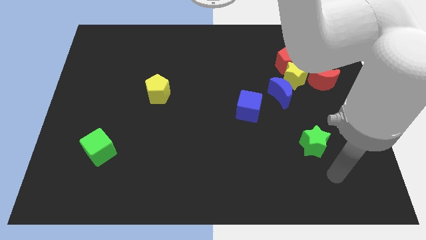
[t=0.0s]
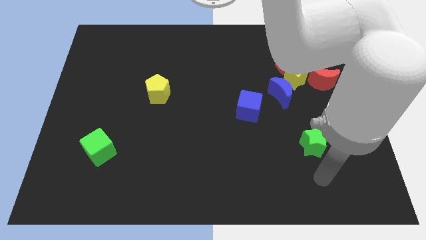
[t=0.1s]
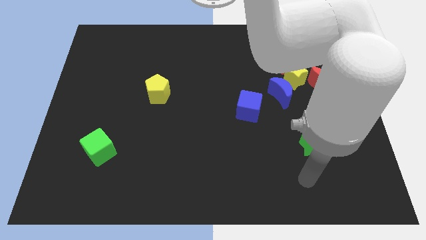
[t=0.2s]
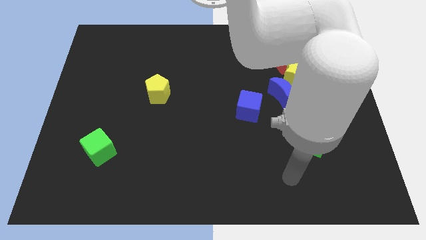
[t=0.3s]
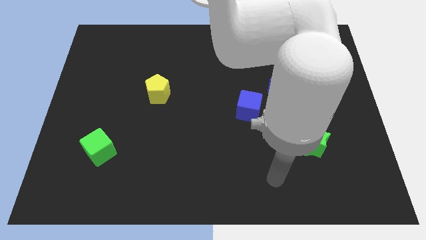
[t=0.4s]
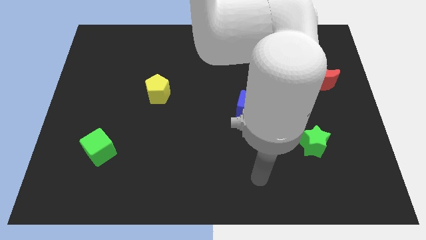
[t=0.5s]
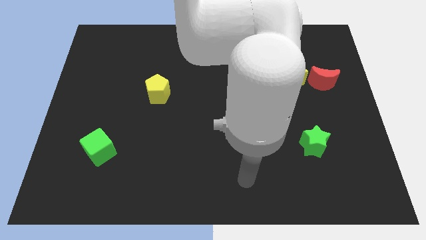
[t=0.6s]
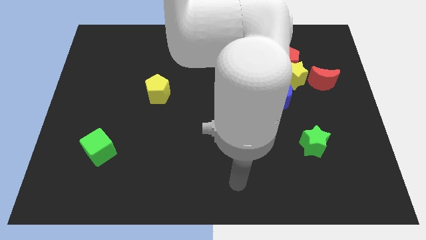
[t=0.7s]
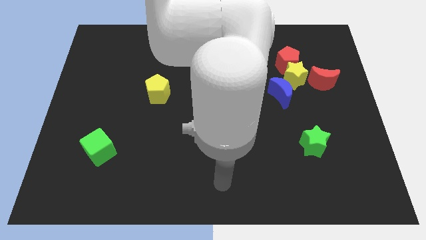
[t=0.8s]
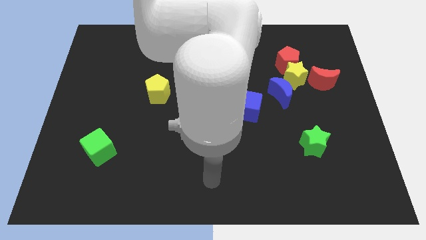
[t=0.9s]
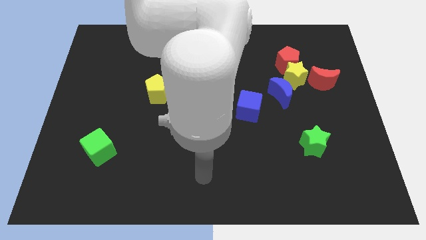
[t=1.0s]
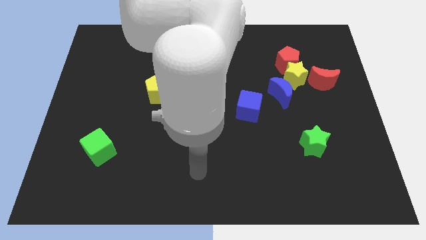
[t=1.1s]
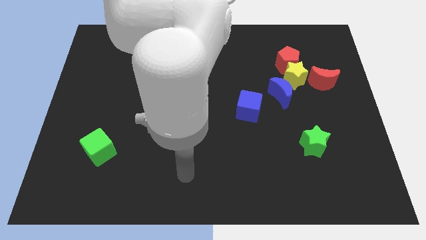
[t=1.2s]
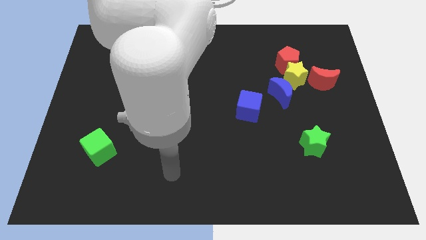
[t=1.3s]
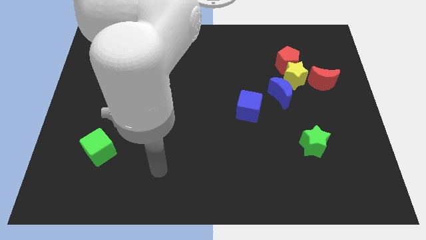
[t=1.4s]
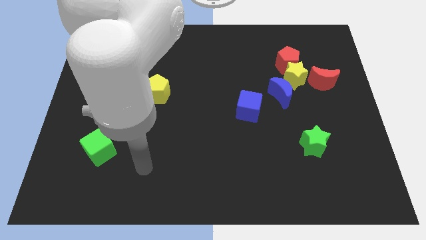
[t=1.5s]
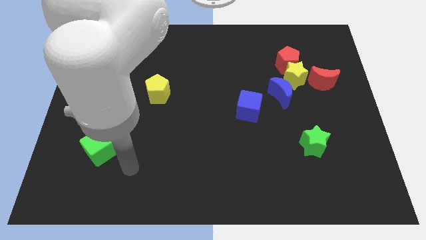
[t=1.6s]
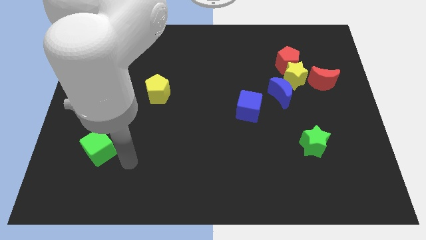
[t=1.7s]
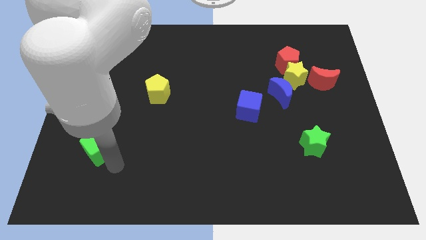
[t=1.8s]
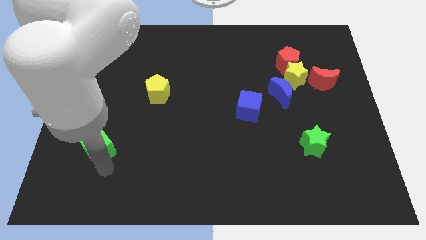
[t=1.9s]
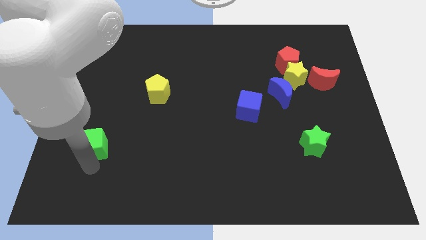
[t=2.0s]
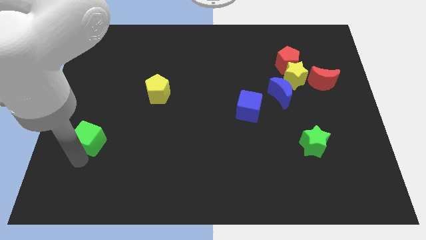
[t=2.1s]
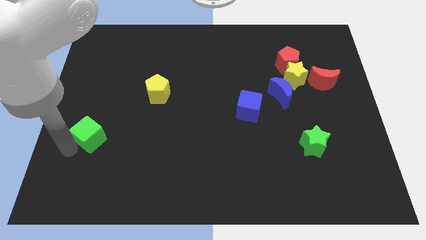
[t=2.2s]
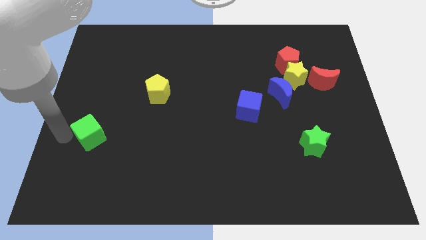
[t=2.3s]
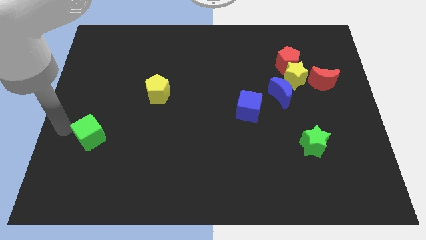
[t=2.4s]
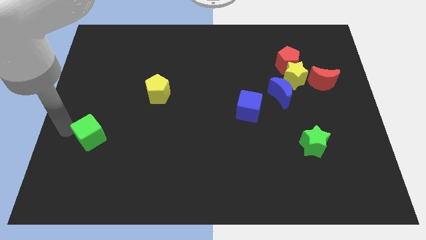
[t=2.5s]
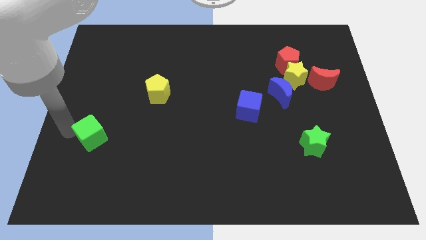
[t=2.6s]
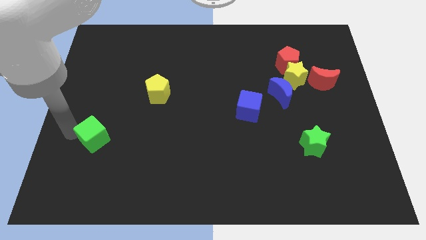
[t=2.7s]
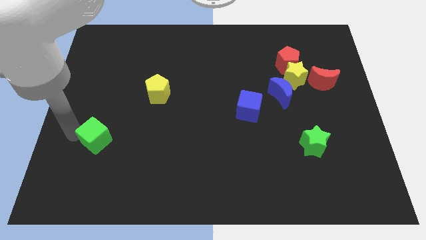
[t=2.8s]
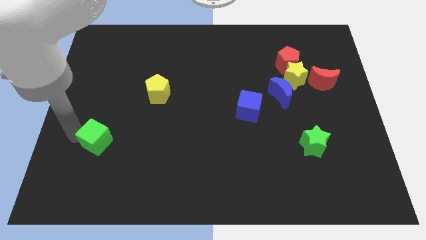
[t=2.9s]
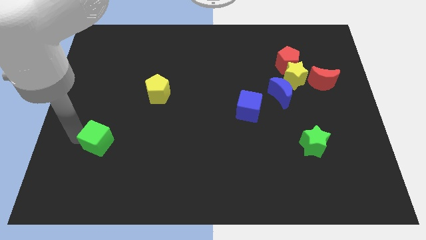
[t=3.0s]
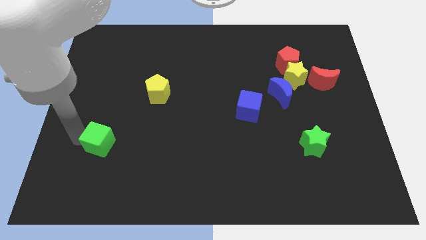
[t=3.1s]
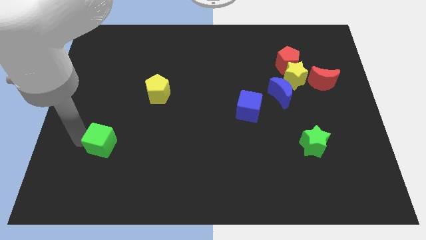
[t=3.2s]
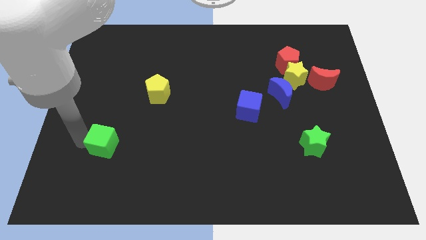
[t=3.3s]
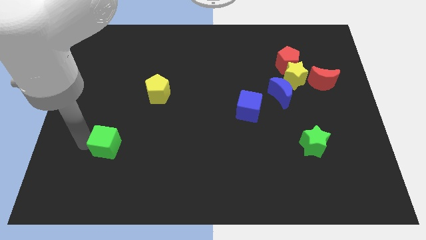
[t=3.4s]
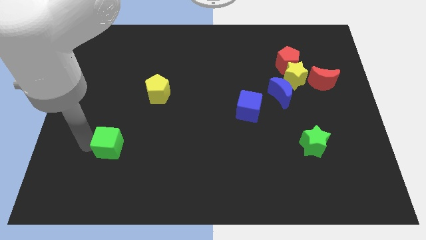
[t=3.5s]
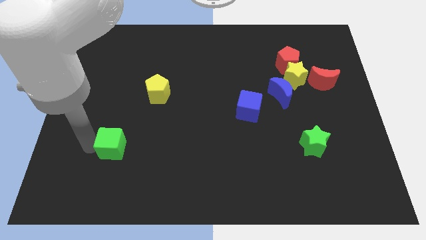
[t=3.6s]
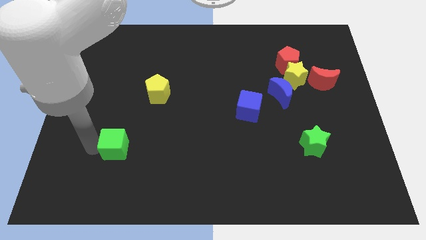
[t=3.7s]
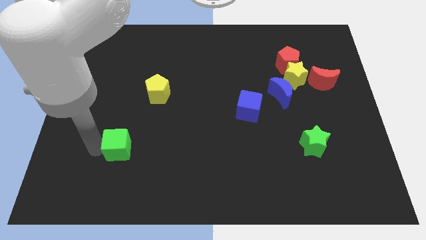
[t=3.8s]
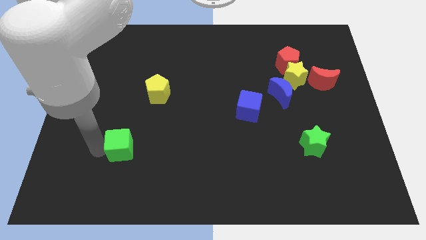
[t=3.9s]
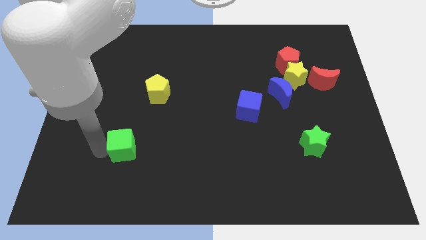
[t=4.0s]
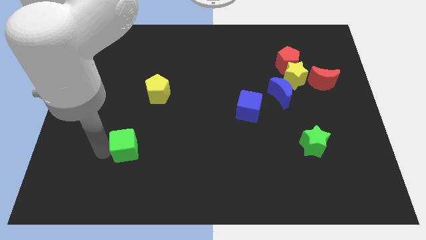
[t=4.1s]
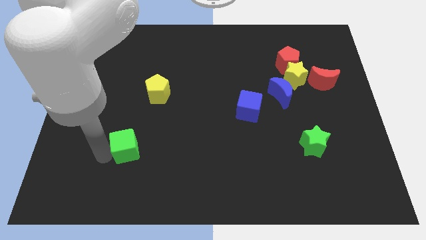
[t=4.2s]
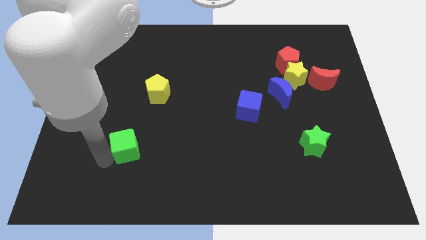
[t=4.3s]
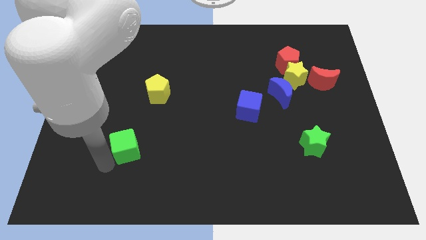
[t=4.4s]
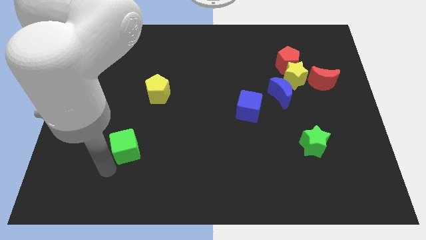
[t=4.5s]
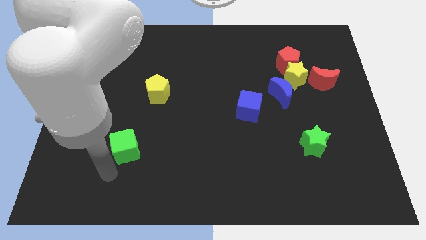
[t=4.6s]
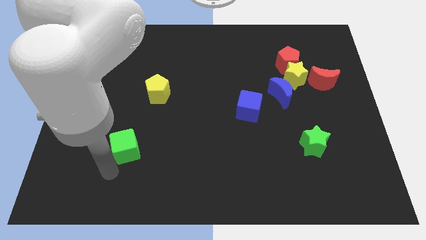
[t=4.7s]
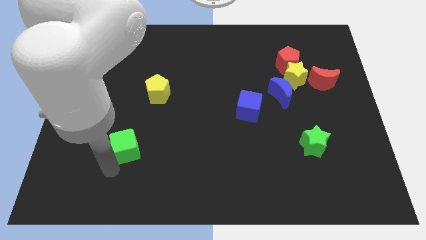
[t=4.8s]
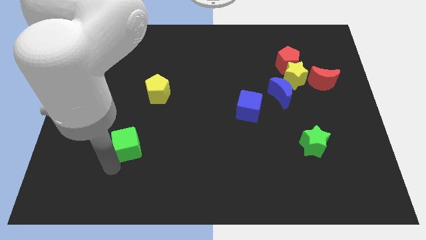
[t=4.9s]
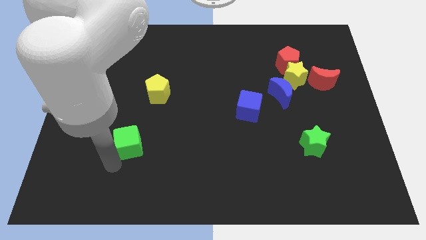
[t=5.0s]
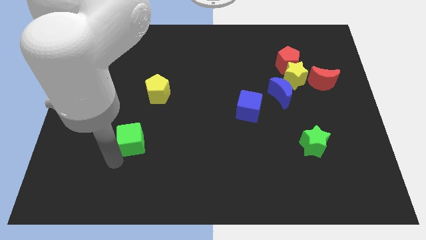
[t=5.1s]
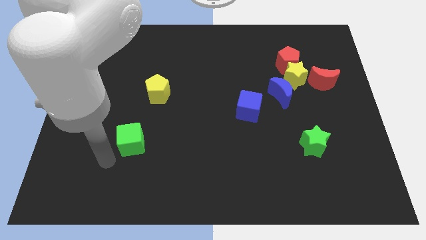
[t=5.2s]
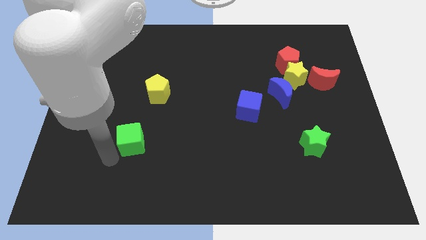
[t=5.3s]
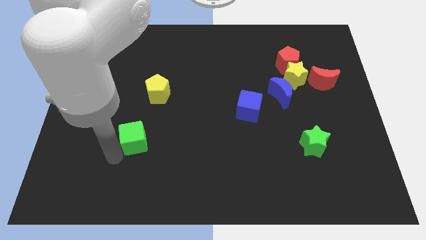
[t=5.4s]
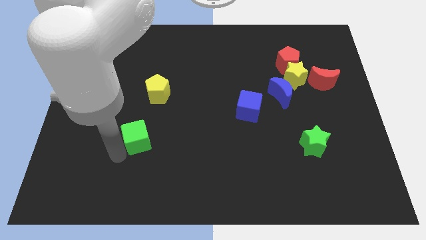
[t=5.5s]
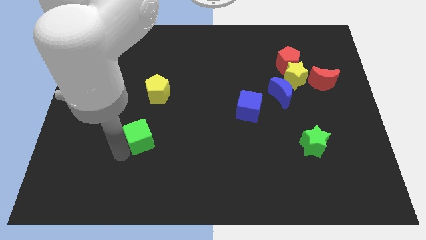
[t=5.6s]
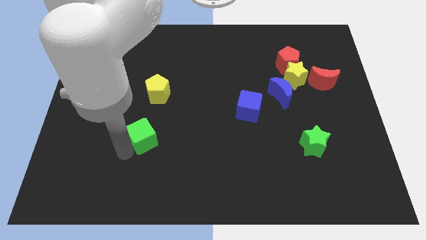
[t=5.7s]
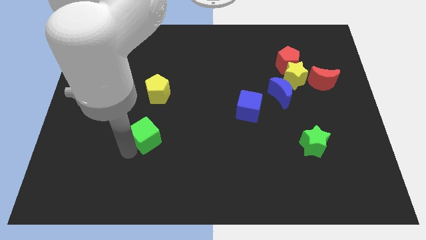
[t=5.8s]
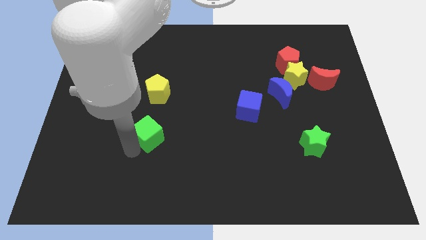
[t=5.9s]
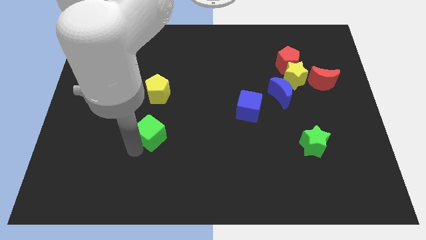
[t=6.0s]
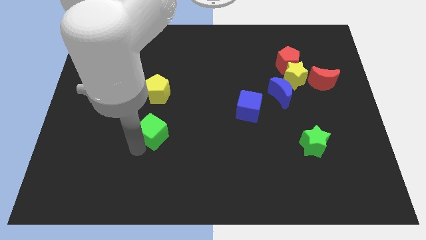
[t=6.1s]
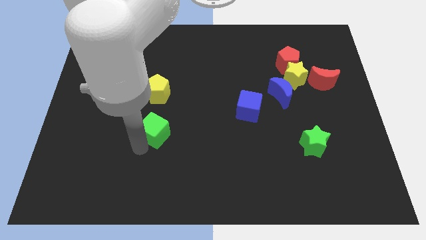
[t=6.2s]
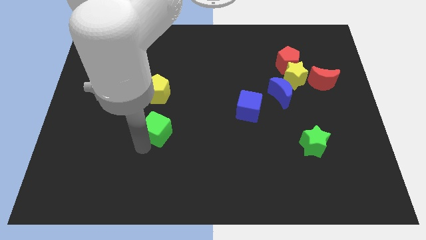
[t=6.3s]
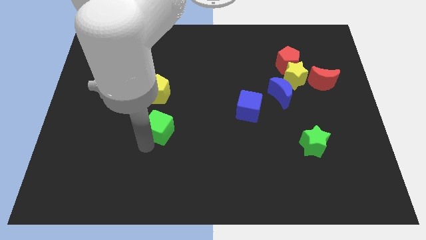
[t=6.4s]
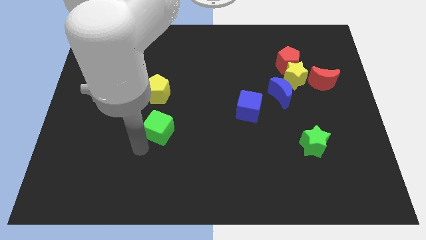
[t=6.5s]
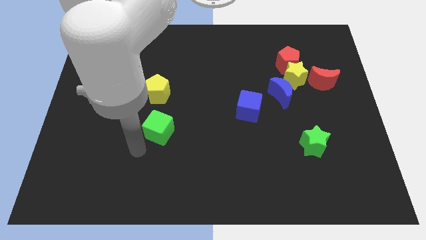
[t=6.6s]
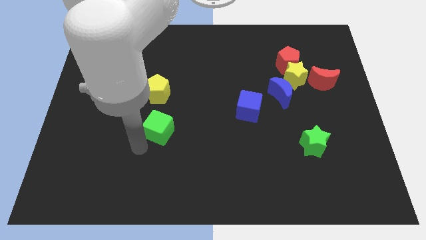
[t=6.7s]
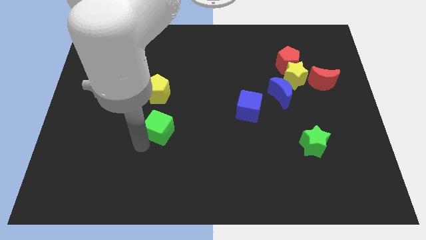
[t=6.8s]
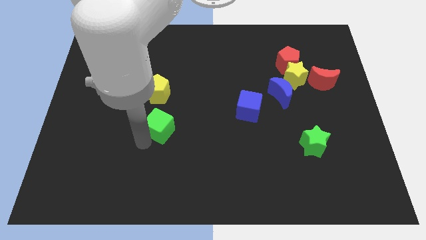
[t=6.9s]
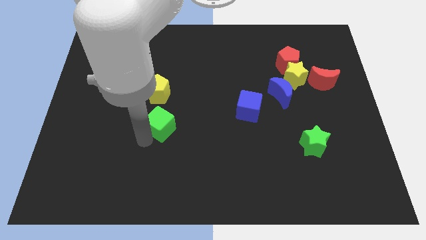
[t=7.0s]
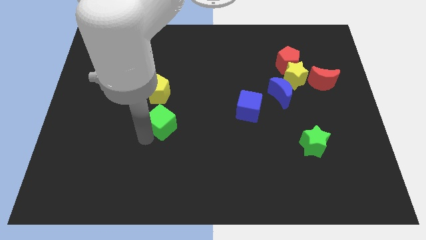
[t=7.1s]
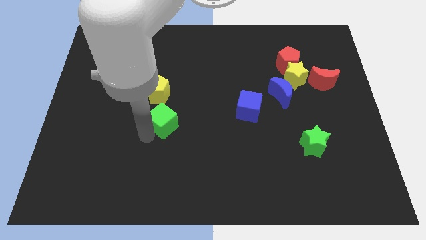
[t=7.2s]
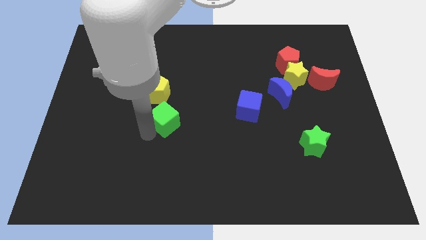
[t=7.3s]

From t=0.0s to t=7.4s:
put the green cube to the center of the board
